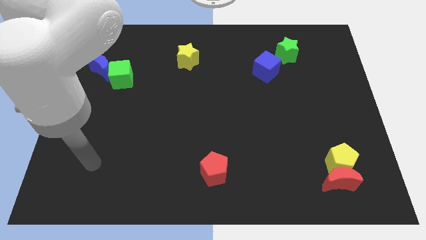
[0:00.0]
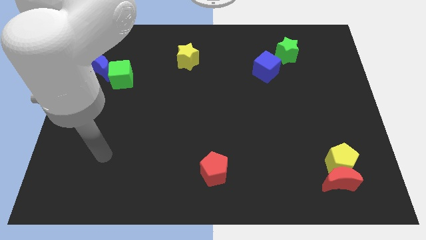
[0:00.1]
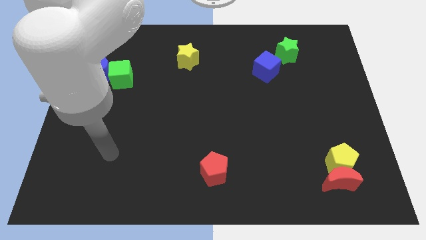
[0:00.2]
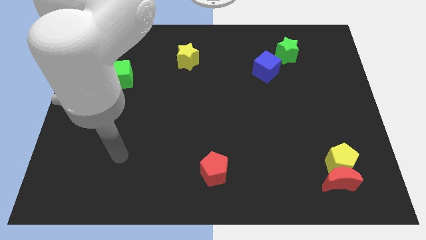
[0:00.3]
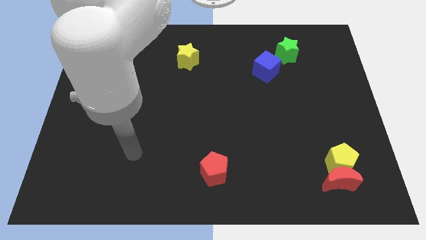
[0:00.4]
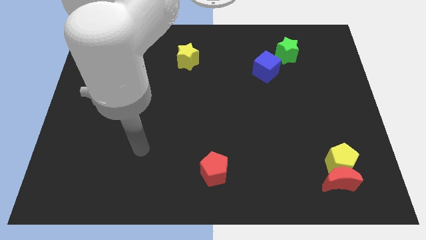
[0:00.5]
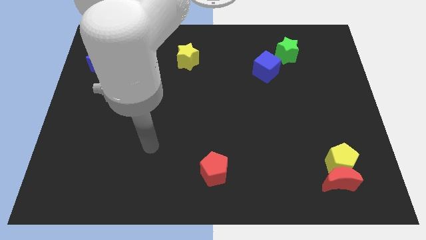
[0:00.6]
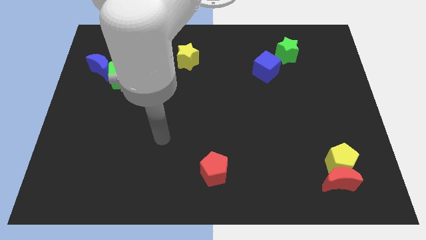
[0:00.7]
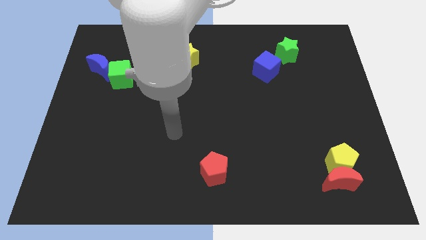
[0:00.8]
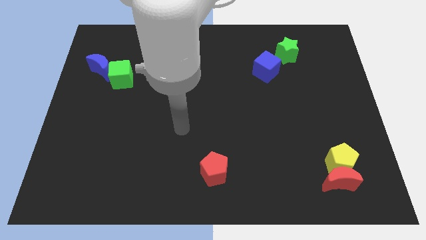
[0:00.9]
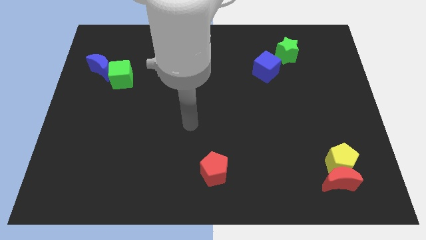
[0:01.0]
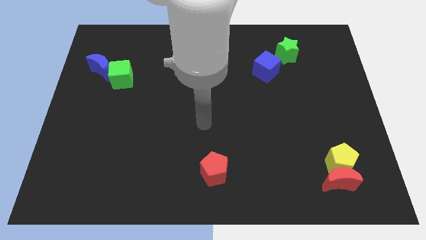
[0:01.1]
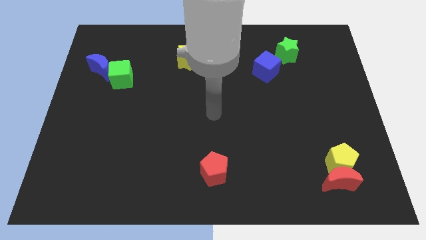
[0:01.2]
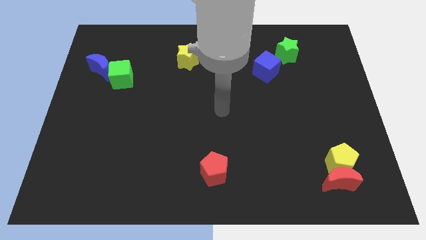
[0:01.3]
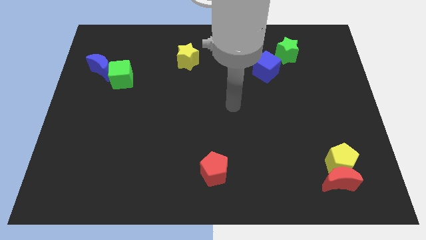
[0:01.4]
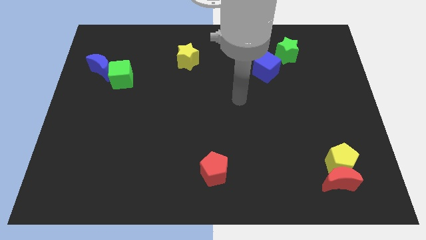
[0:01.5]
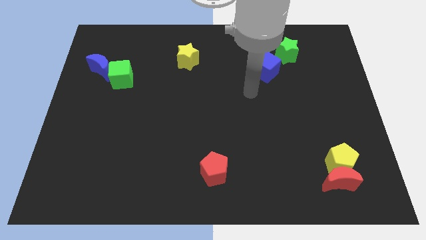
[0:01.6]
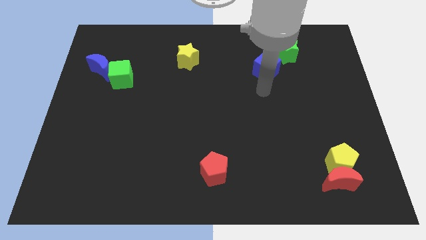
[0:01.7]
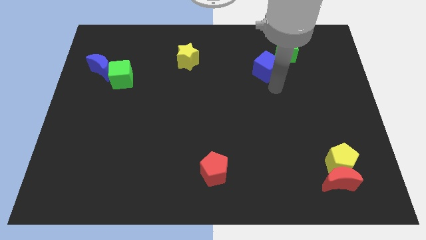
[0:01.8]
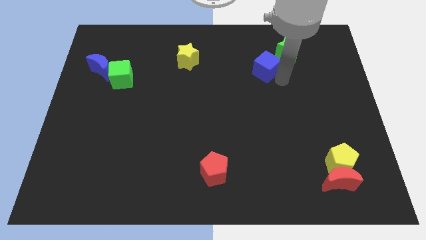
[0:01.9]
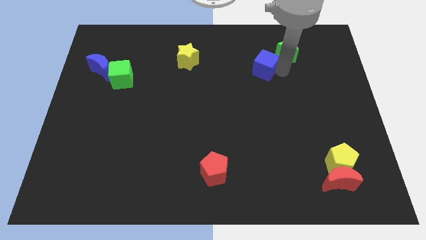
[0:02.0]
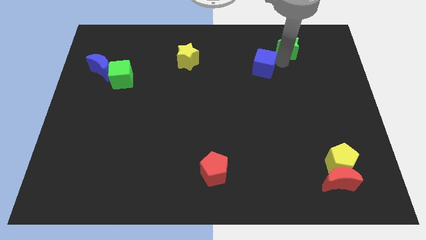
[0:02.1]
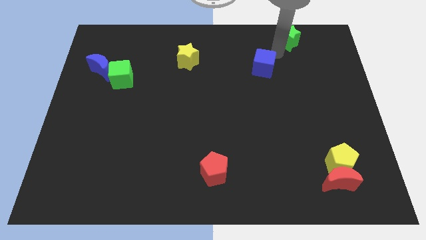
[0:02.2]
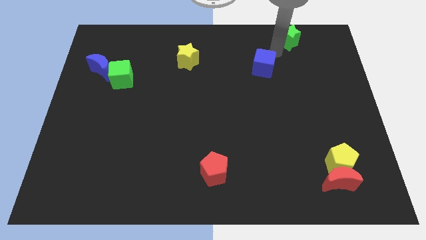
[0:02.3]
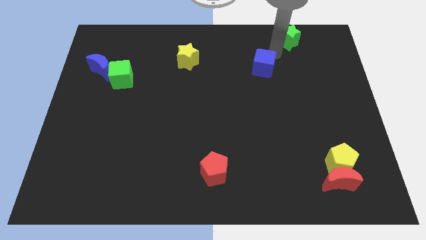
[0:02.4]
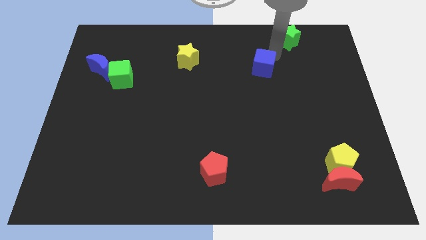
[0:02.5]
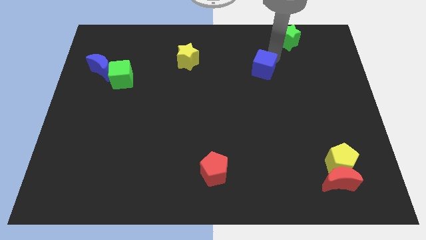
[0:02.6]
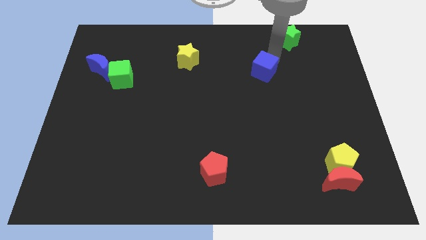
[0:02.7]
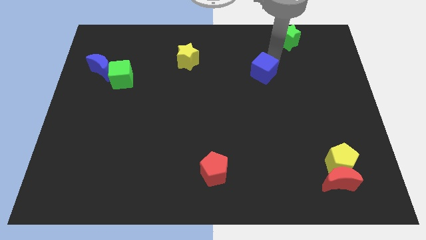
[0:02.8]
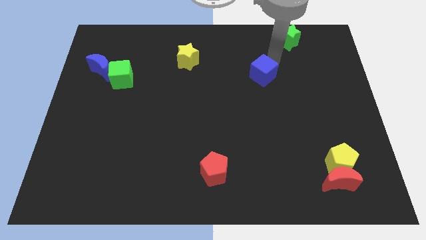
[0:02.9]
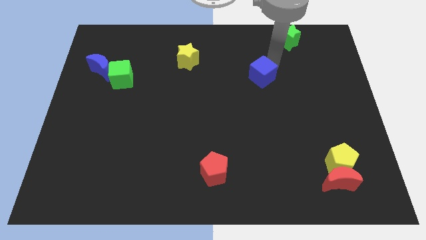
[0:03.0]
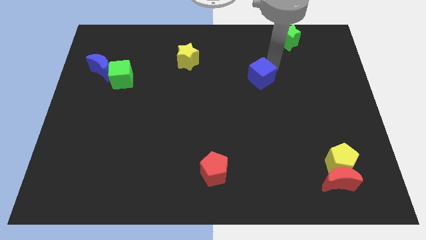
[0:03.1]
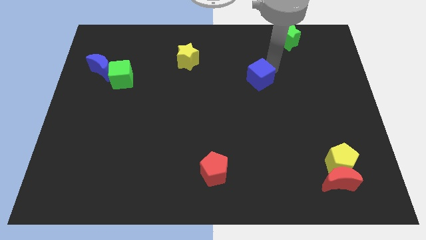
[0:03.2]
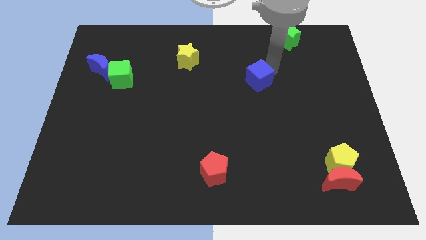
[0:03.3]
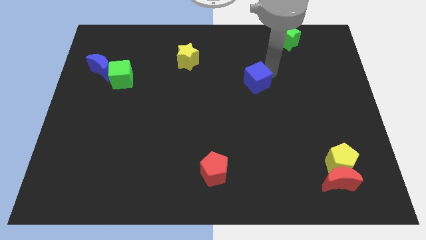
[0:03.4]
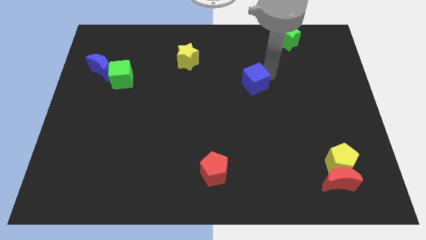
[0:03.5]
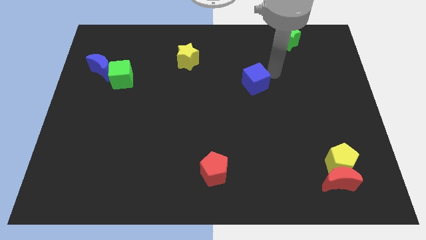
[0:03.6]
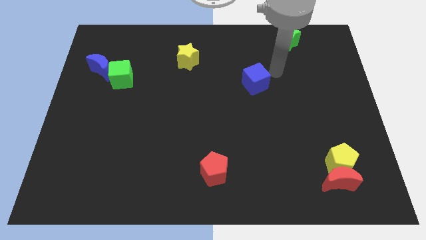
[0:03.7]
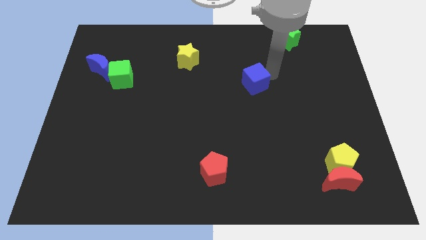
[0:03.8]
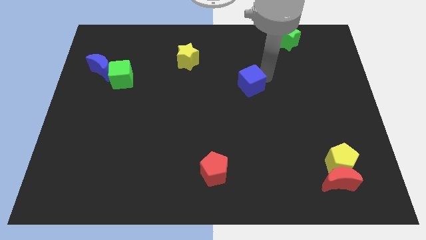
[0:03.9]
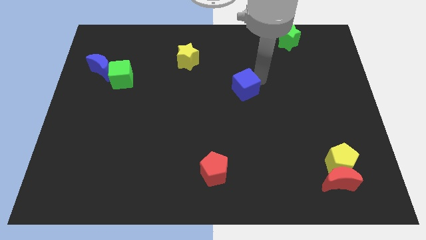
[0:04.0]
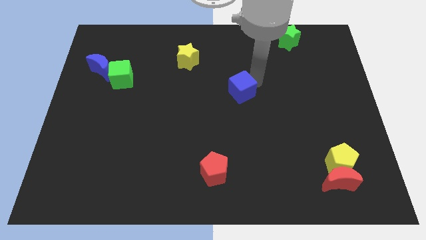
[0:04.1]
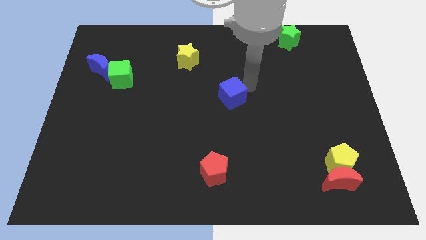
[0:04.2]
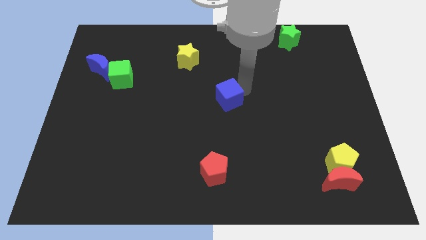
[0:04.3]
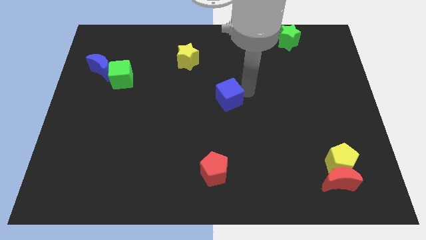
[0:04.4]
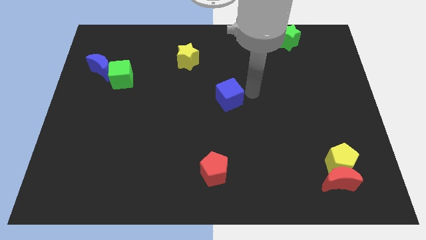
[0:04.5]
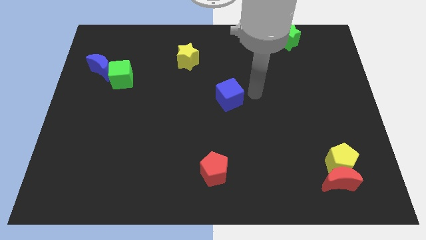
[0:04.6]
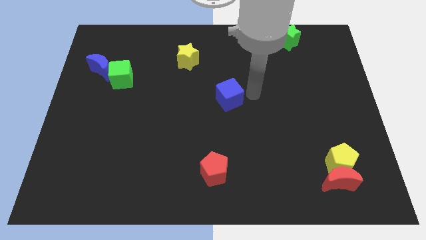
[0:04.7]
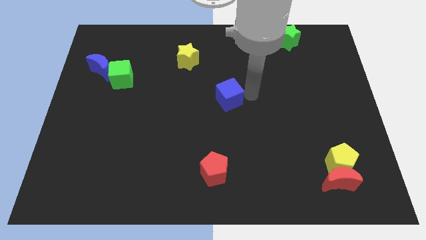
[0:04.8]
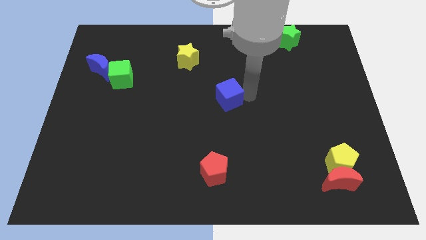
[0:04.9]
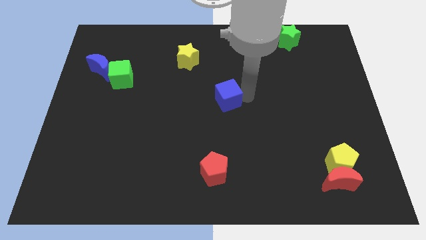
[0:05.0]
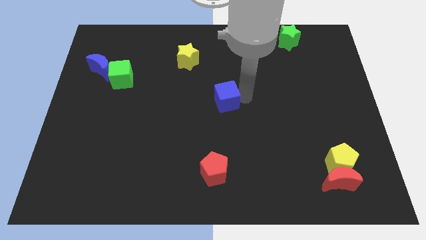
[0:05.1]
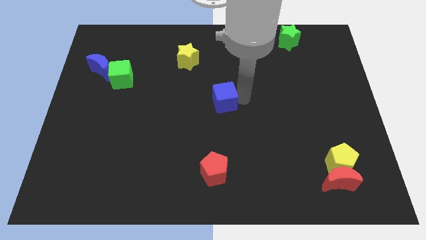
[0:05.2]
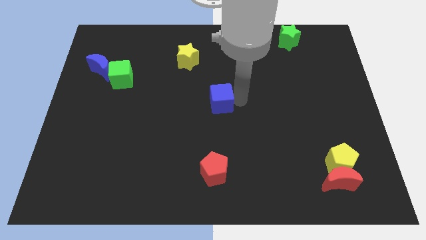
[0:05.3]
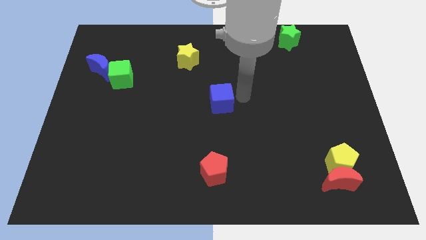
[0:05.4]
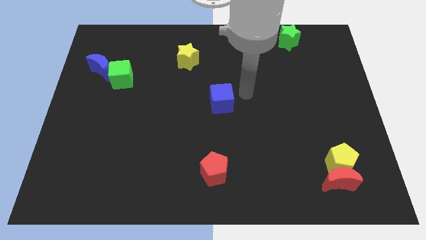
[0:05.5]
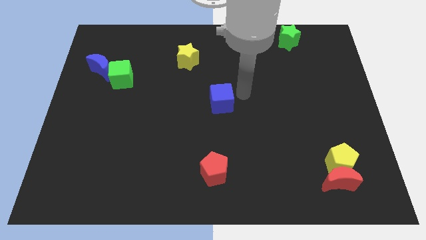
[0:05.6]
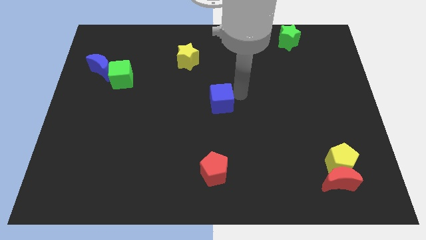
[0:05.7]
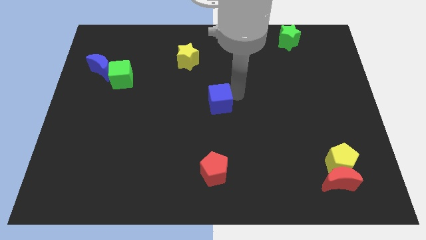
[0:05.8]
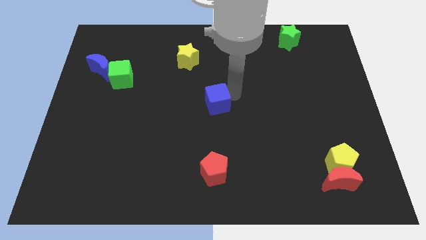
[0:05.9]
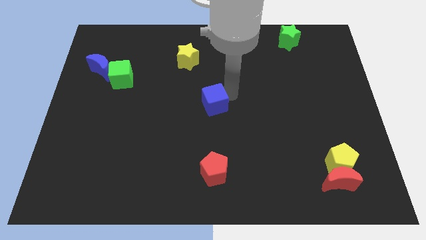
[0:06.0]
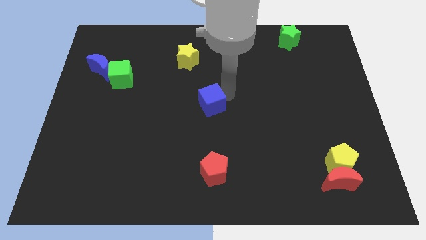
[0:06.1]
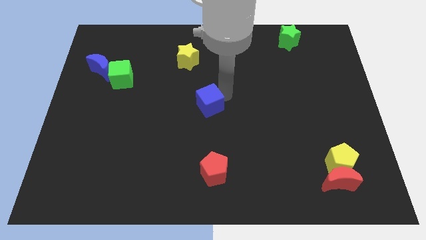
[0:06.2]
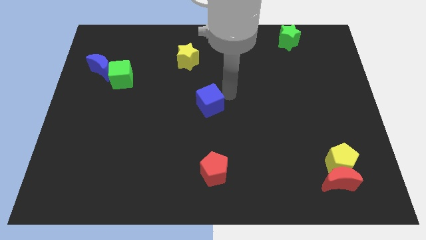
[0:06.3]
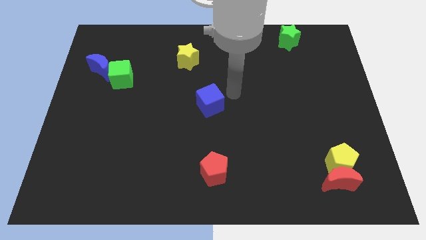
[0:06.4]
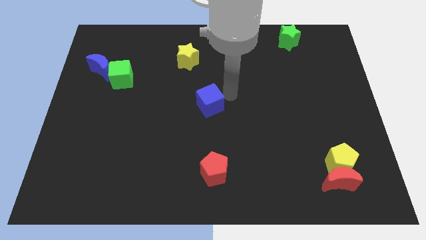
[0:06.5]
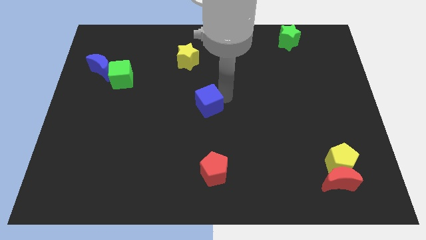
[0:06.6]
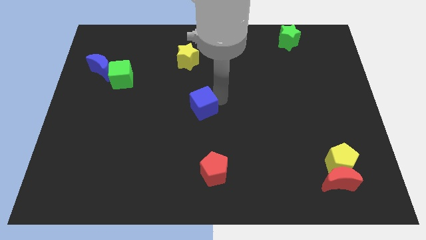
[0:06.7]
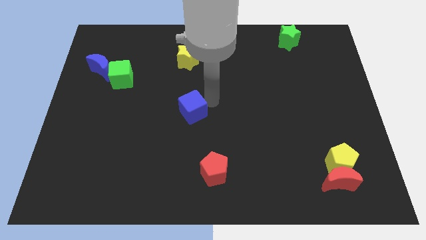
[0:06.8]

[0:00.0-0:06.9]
push the blue cube diagonally downwards and left

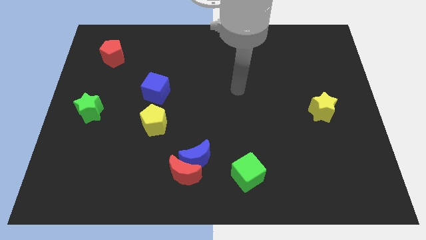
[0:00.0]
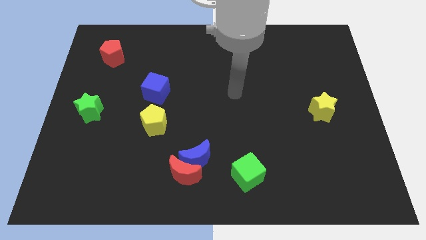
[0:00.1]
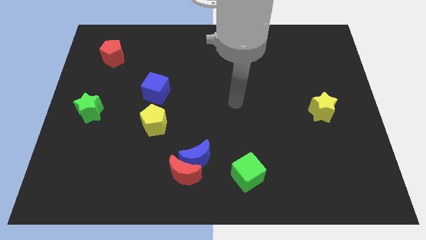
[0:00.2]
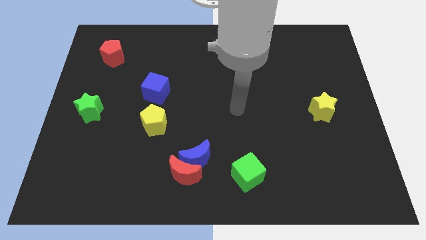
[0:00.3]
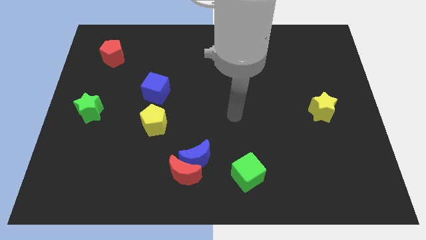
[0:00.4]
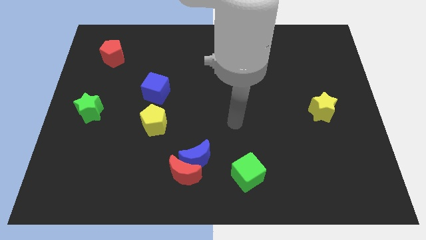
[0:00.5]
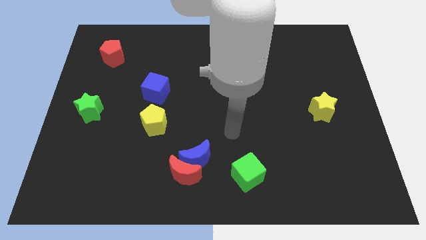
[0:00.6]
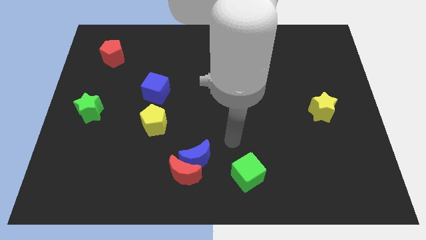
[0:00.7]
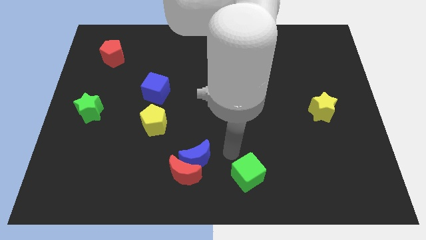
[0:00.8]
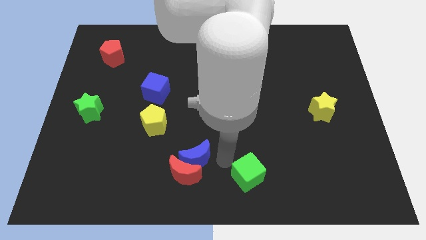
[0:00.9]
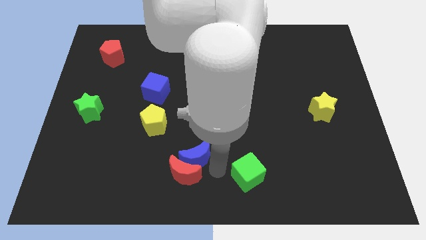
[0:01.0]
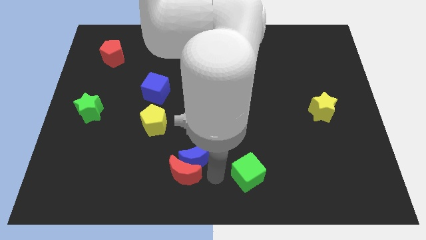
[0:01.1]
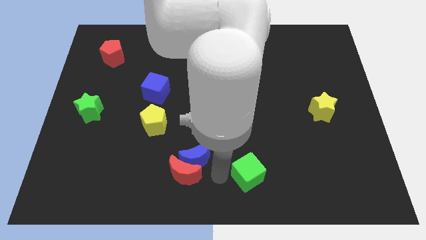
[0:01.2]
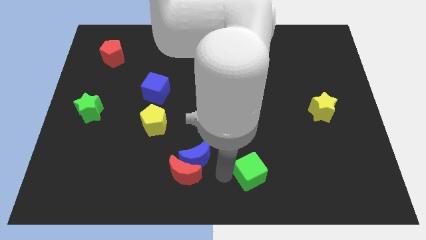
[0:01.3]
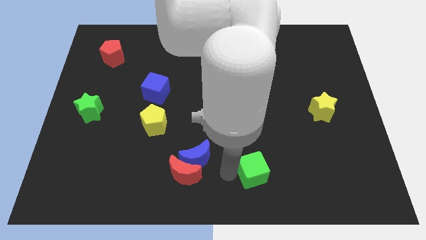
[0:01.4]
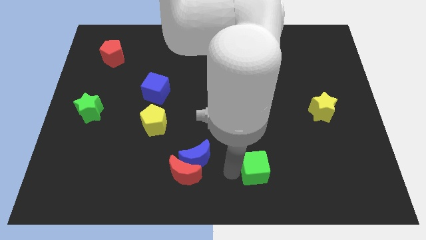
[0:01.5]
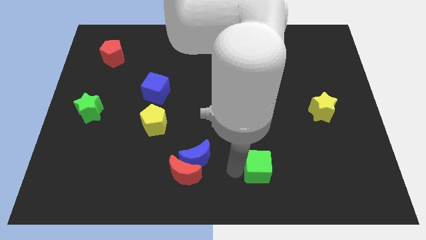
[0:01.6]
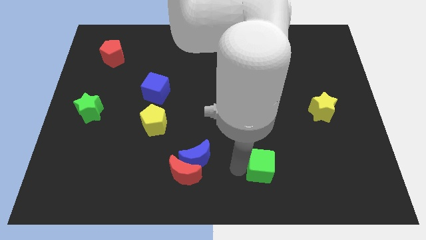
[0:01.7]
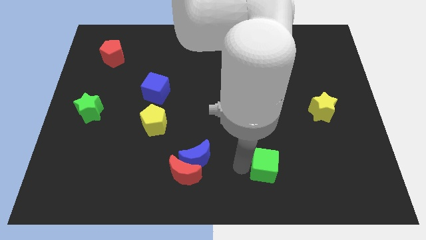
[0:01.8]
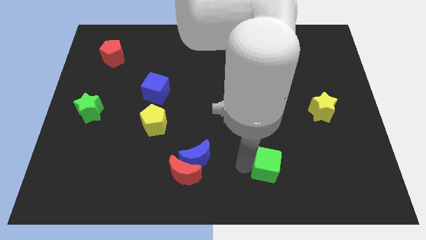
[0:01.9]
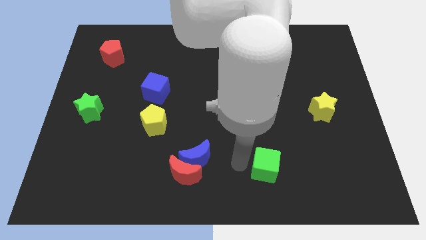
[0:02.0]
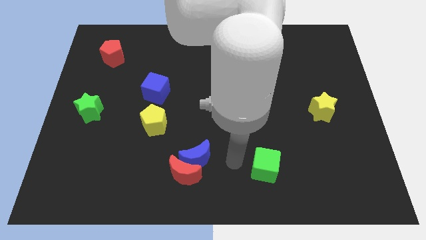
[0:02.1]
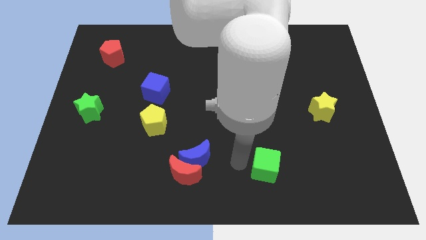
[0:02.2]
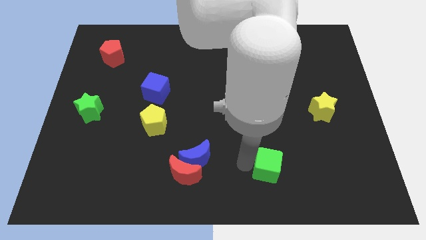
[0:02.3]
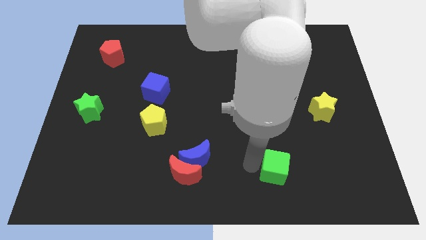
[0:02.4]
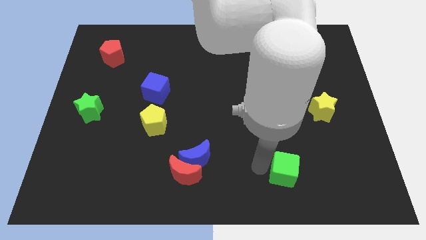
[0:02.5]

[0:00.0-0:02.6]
move the green cube to the right somewhat
